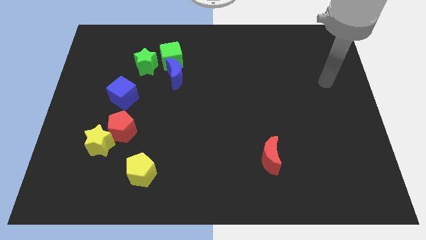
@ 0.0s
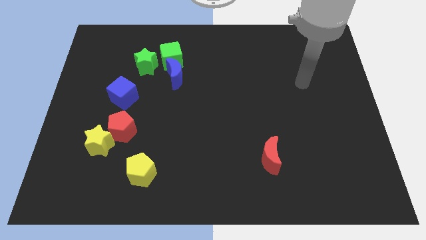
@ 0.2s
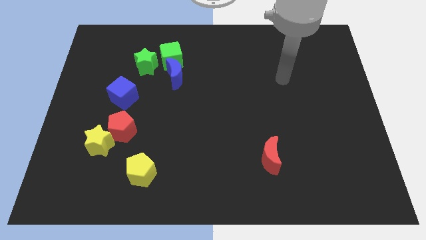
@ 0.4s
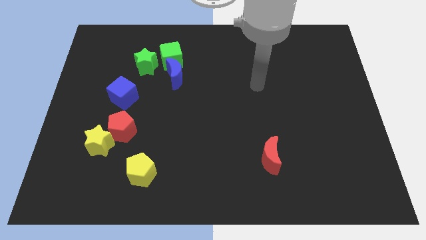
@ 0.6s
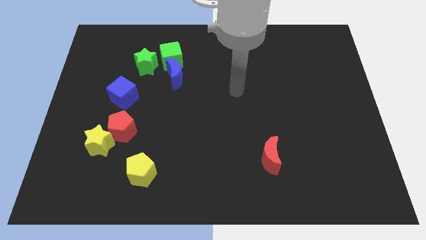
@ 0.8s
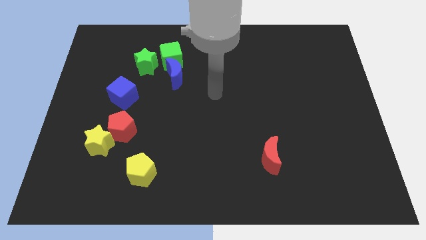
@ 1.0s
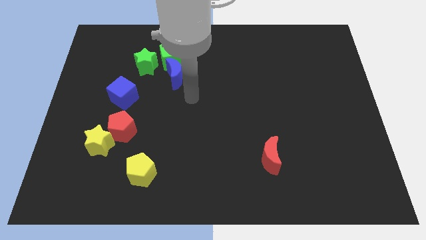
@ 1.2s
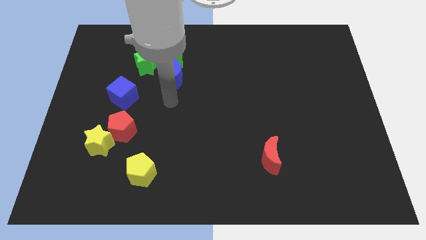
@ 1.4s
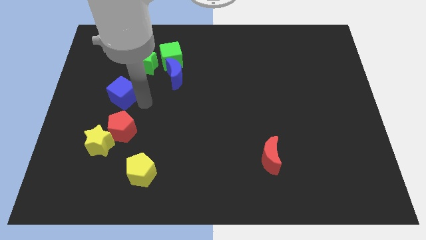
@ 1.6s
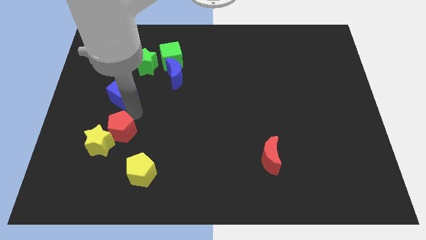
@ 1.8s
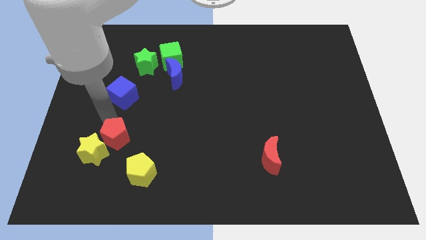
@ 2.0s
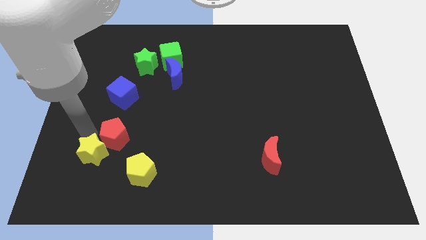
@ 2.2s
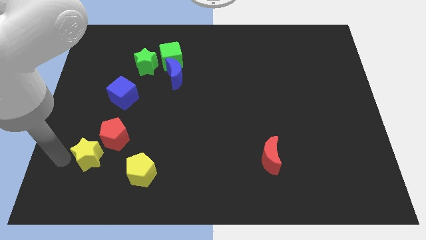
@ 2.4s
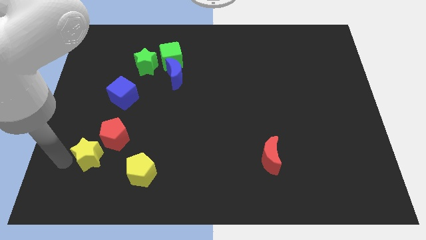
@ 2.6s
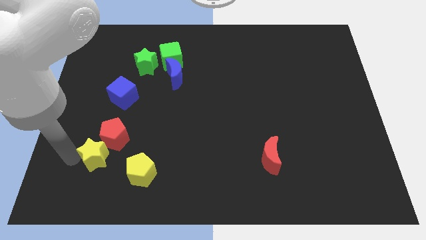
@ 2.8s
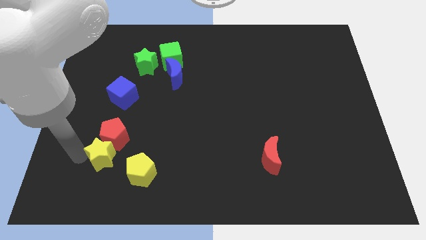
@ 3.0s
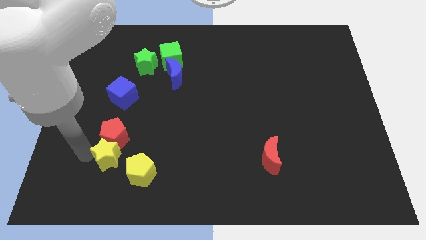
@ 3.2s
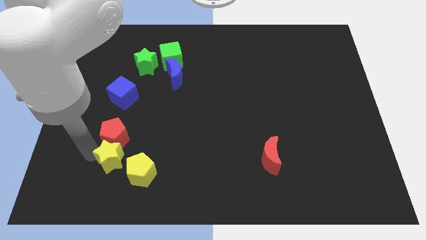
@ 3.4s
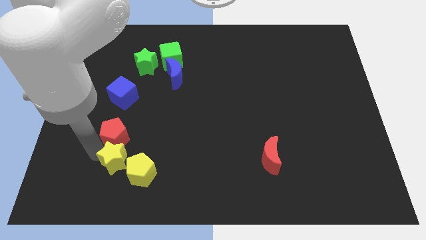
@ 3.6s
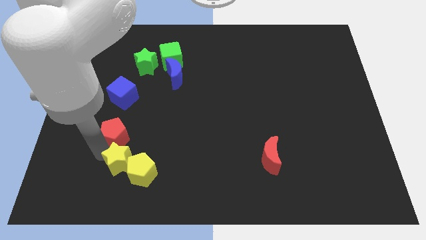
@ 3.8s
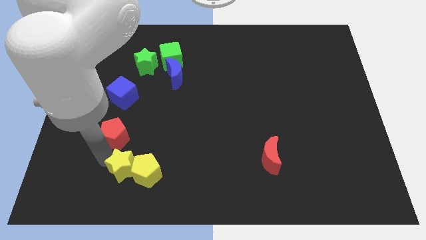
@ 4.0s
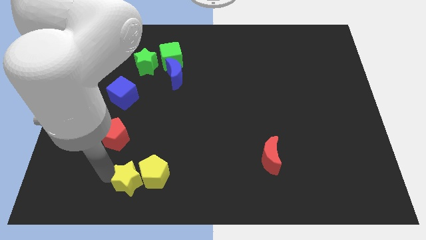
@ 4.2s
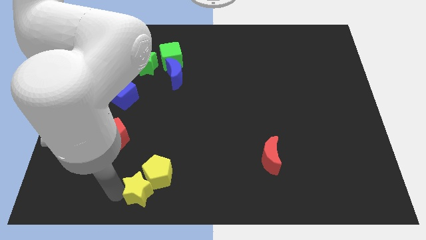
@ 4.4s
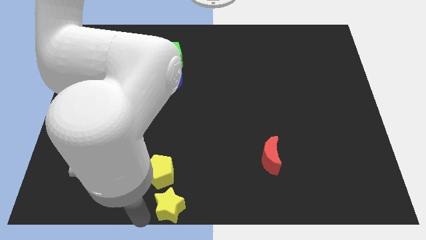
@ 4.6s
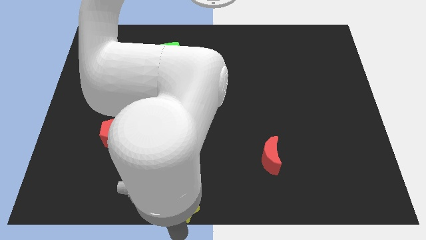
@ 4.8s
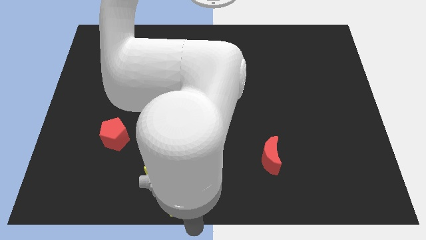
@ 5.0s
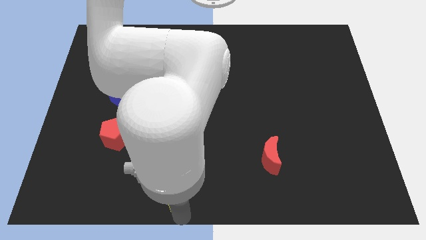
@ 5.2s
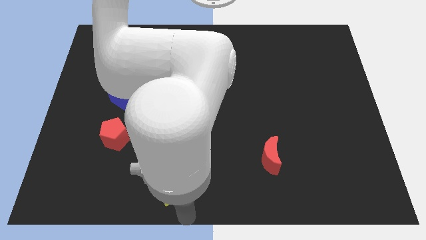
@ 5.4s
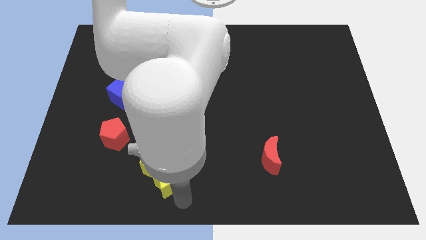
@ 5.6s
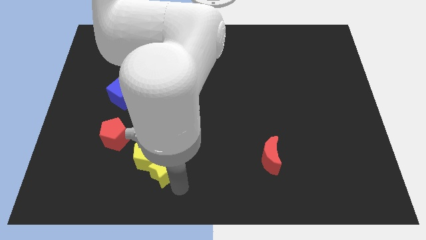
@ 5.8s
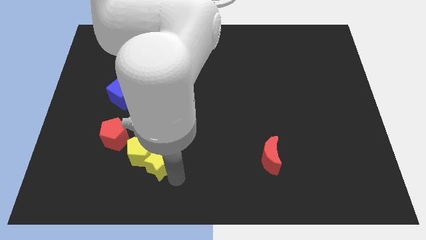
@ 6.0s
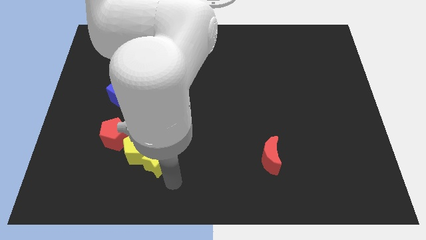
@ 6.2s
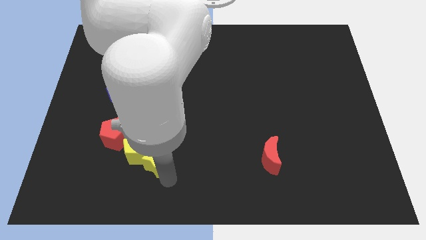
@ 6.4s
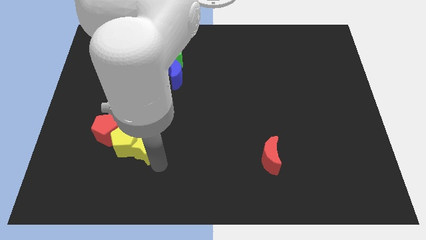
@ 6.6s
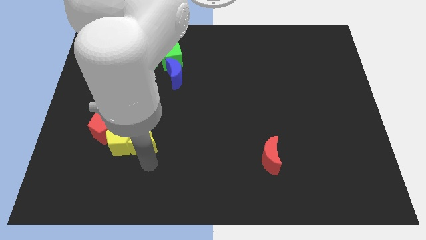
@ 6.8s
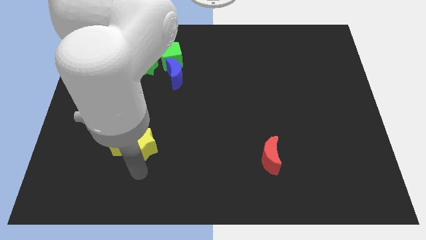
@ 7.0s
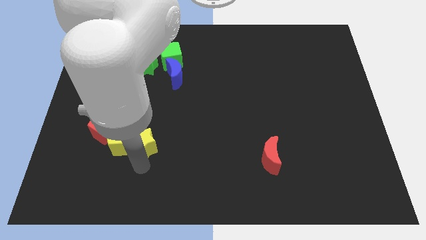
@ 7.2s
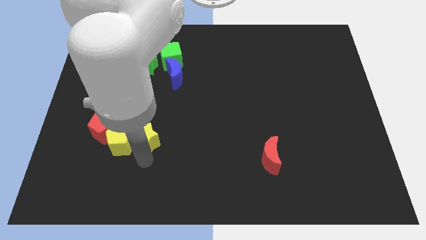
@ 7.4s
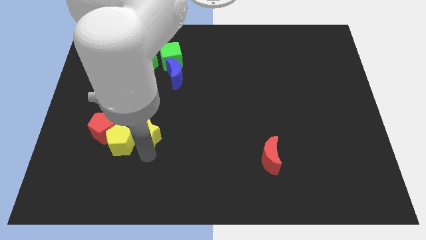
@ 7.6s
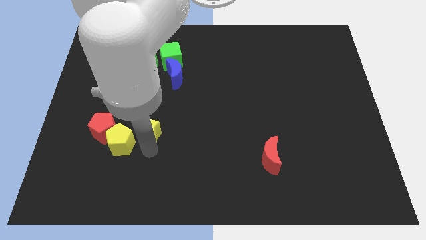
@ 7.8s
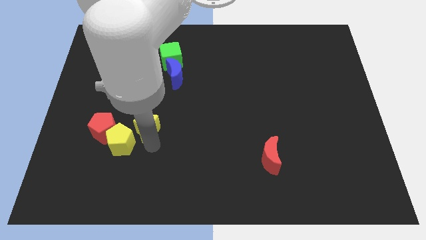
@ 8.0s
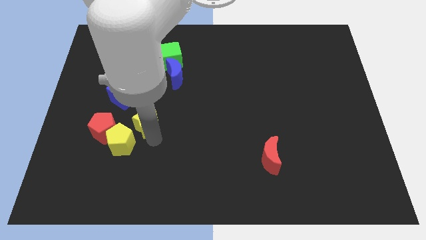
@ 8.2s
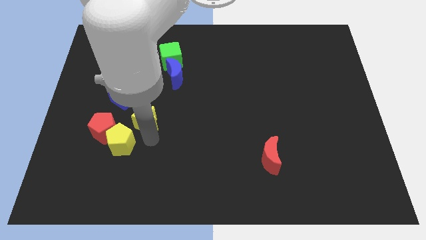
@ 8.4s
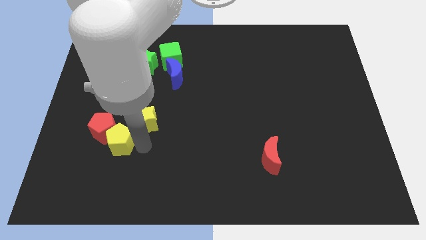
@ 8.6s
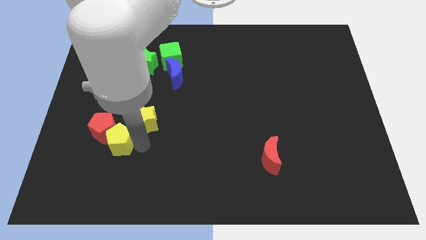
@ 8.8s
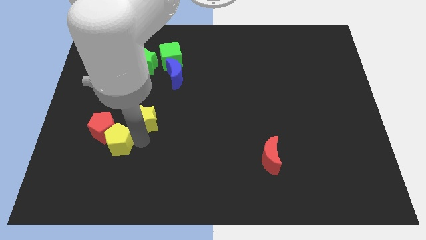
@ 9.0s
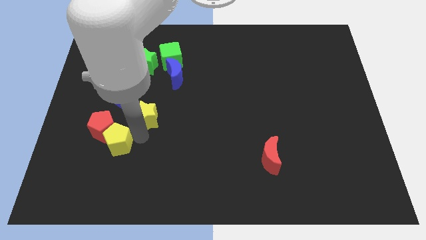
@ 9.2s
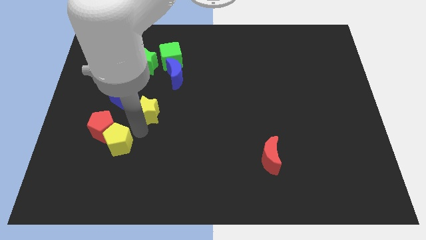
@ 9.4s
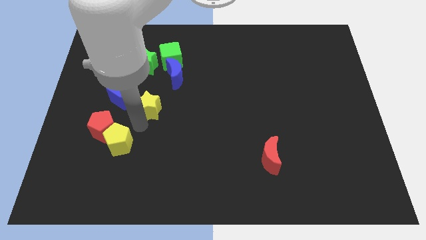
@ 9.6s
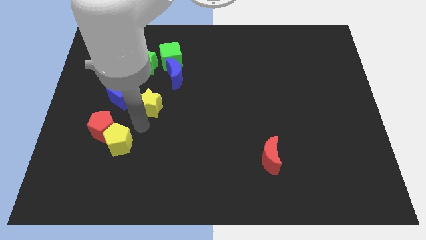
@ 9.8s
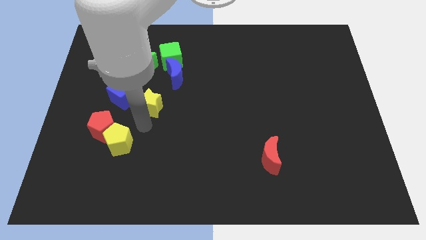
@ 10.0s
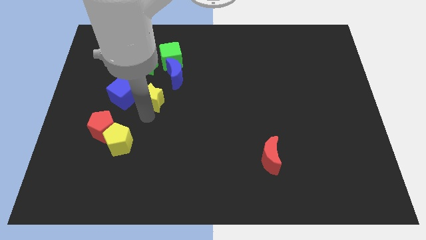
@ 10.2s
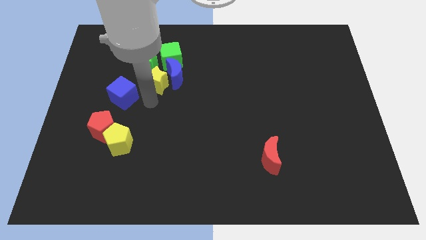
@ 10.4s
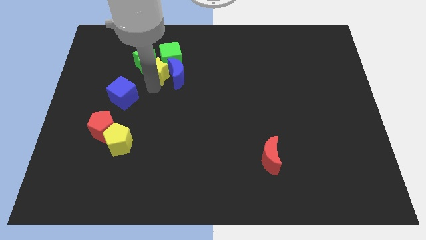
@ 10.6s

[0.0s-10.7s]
slide the yellow star close to the green cube

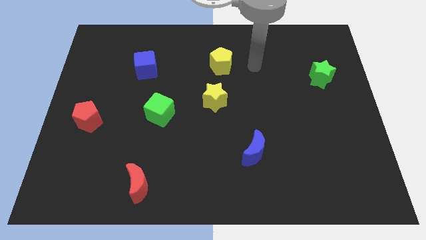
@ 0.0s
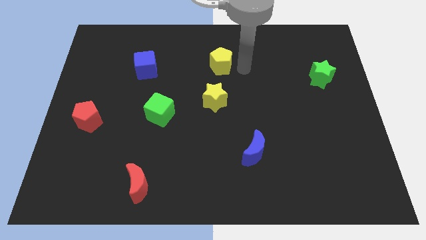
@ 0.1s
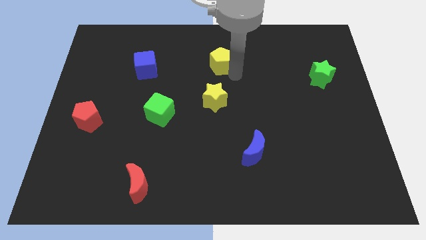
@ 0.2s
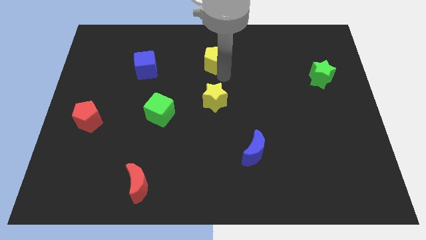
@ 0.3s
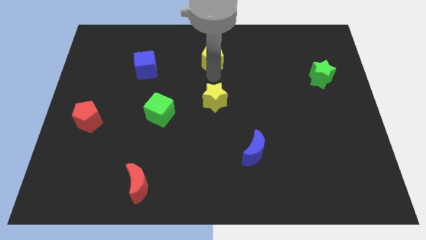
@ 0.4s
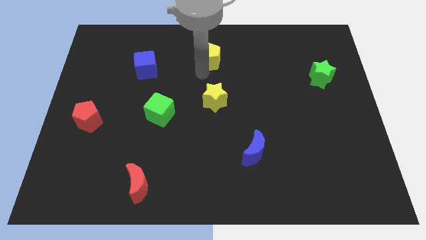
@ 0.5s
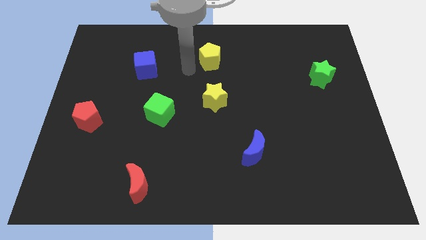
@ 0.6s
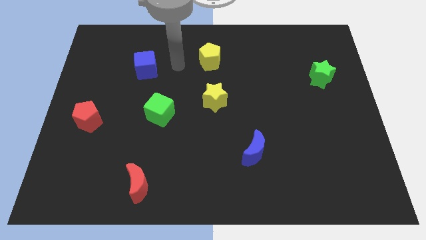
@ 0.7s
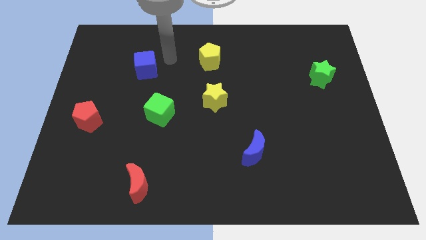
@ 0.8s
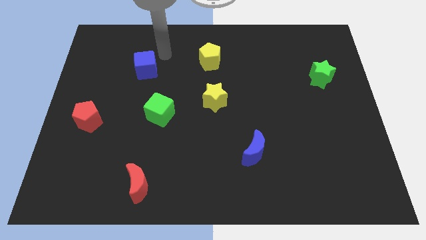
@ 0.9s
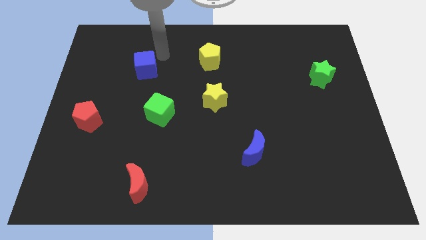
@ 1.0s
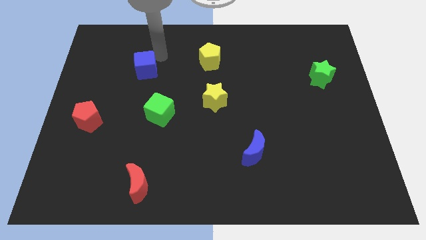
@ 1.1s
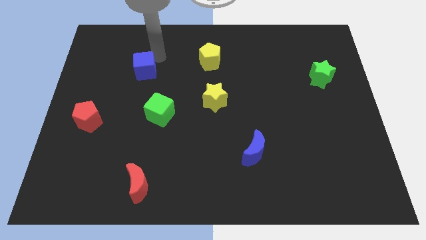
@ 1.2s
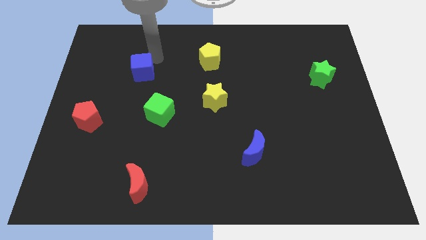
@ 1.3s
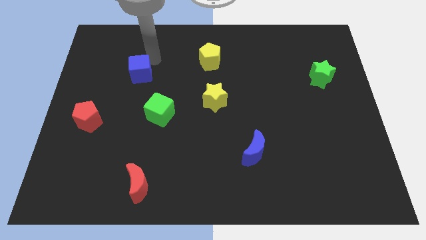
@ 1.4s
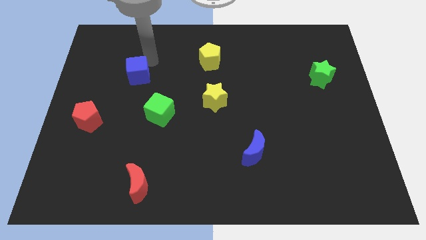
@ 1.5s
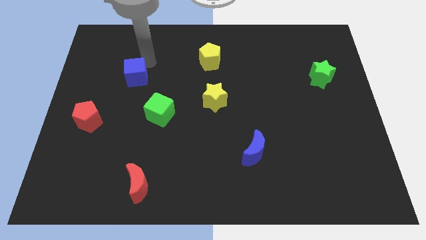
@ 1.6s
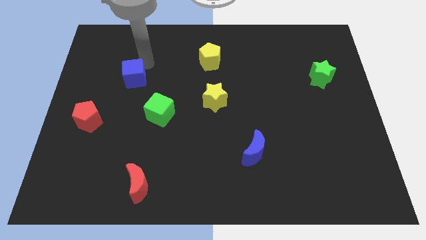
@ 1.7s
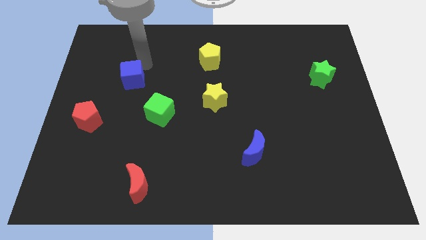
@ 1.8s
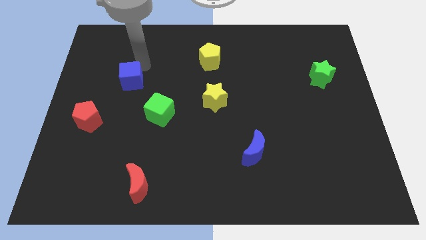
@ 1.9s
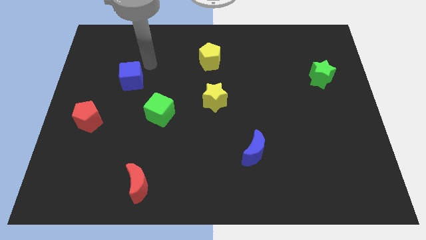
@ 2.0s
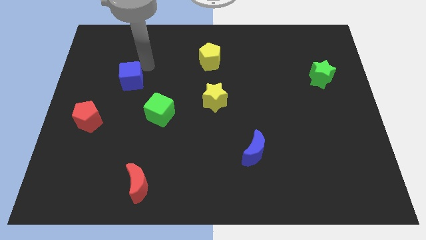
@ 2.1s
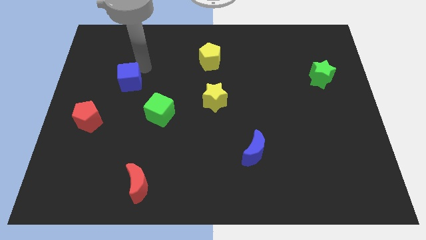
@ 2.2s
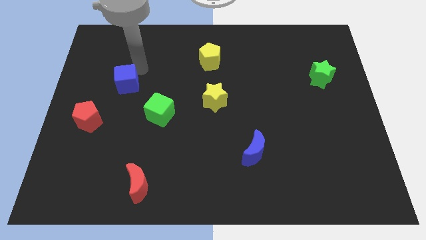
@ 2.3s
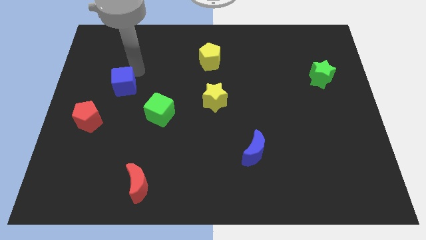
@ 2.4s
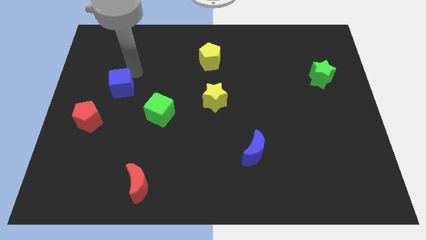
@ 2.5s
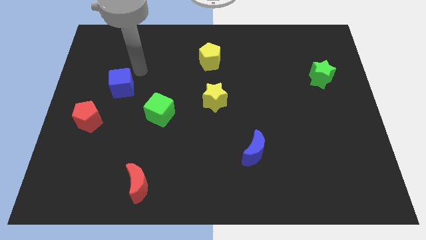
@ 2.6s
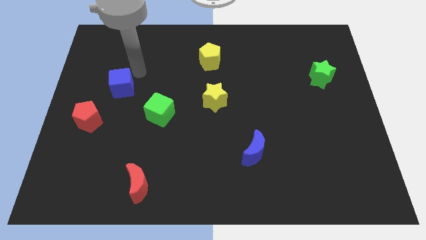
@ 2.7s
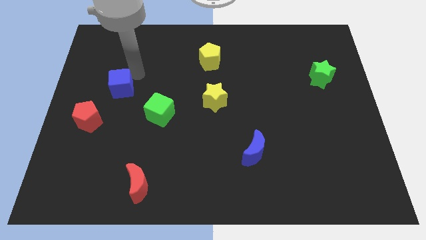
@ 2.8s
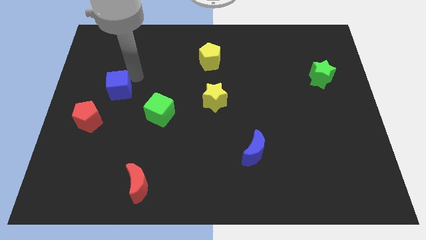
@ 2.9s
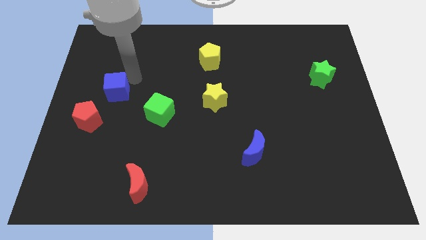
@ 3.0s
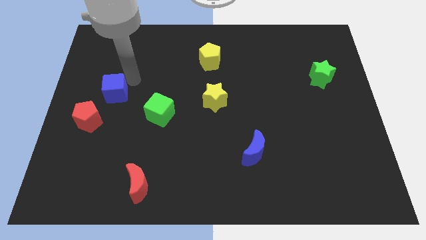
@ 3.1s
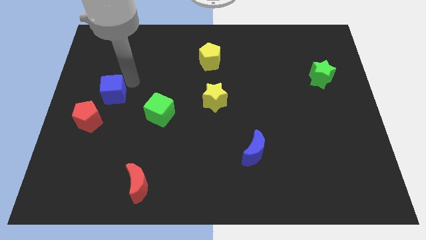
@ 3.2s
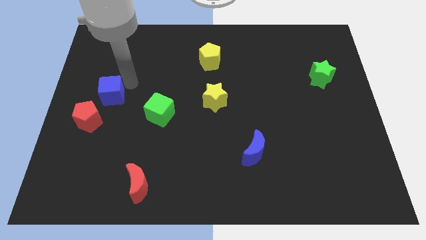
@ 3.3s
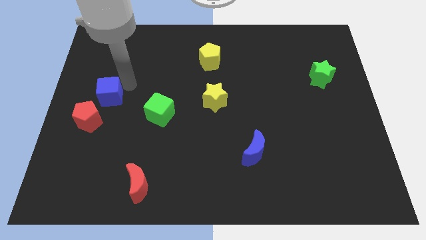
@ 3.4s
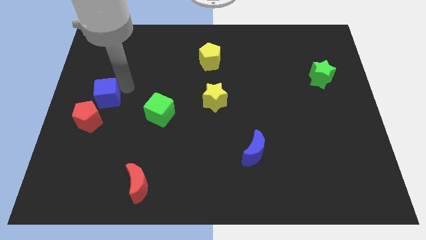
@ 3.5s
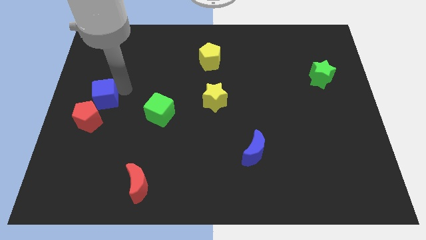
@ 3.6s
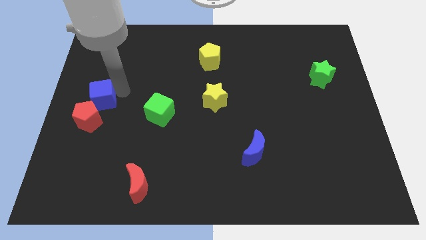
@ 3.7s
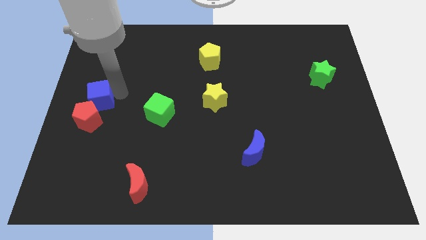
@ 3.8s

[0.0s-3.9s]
push the blue cube to the red pentagon
